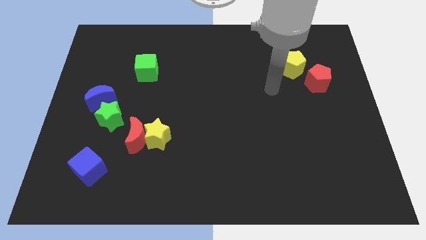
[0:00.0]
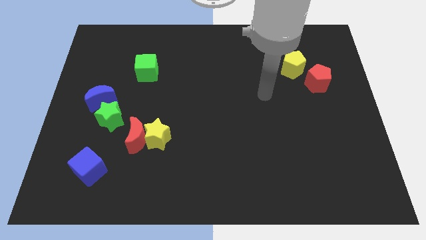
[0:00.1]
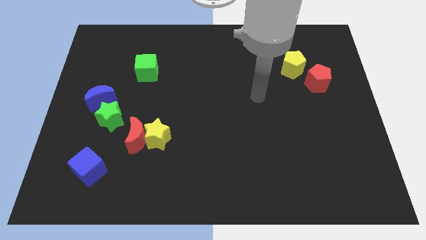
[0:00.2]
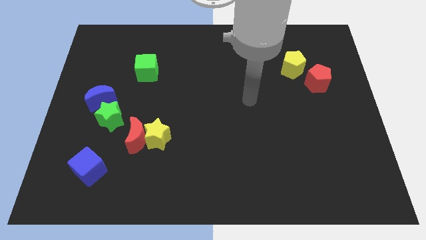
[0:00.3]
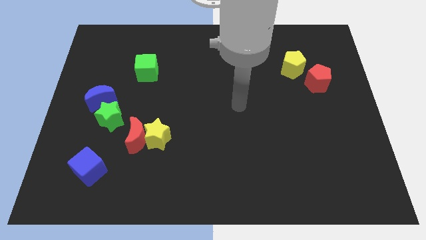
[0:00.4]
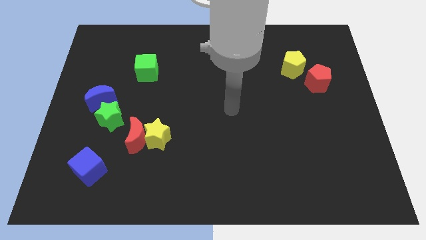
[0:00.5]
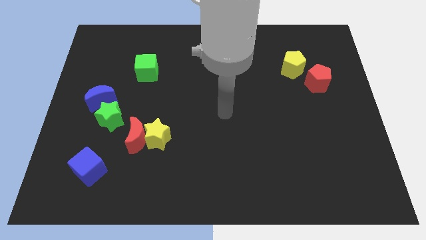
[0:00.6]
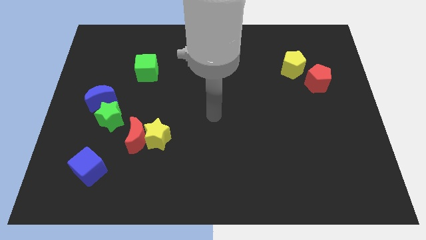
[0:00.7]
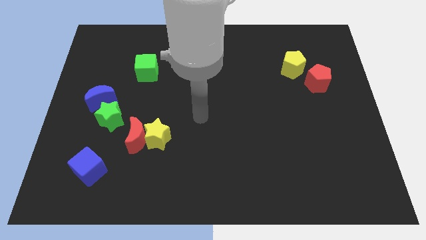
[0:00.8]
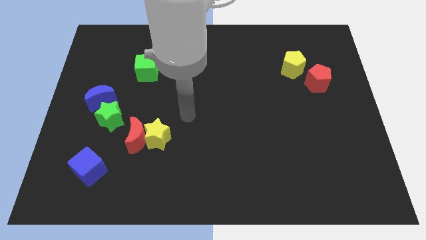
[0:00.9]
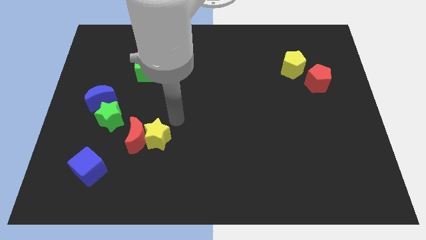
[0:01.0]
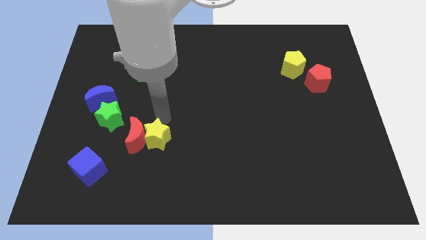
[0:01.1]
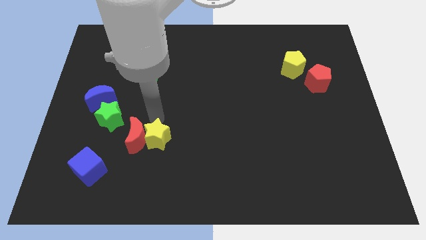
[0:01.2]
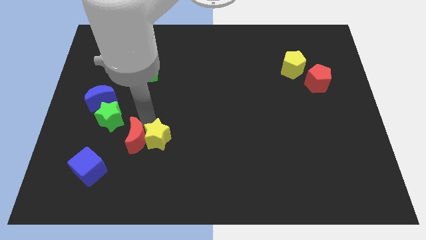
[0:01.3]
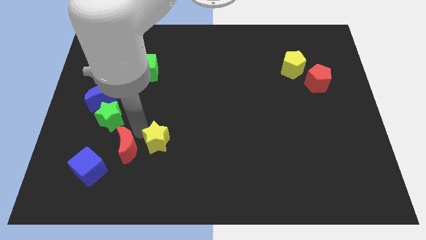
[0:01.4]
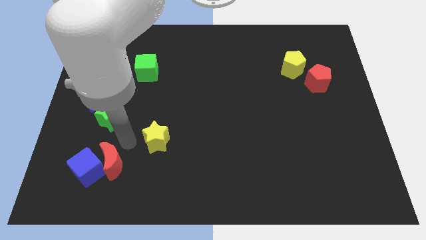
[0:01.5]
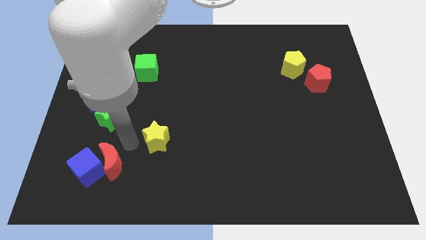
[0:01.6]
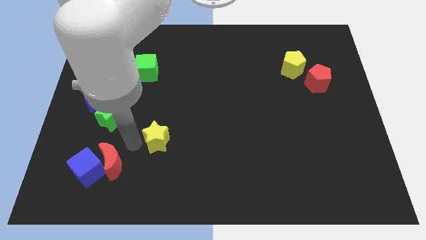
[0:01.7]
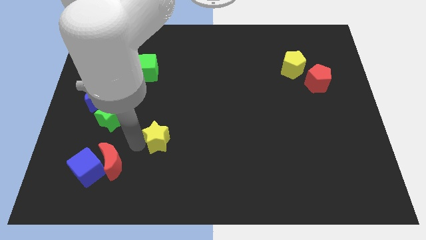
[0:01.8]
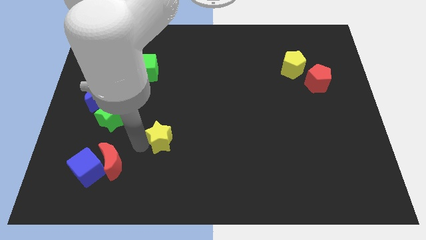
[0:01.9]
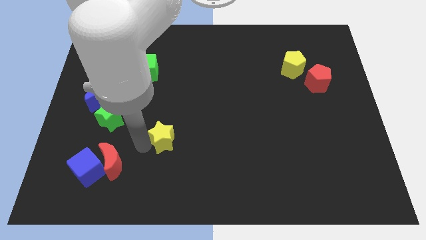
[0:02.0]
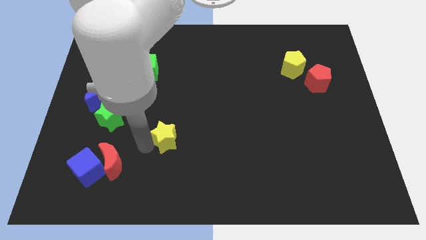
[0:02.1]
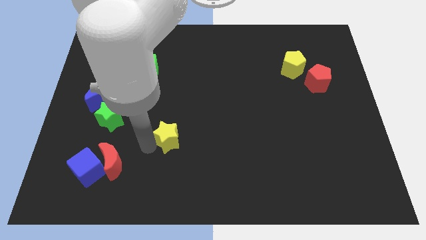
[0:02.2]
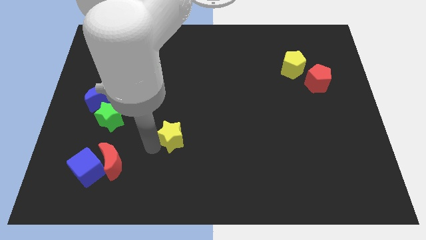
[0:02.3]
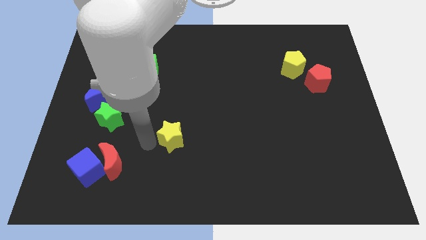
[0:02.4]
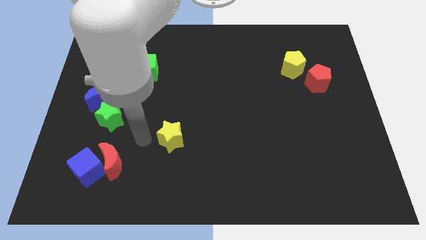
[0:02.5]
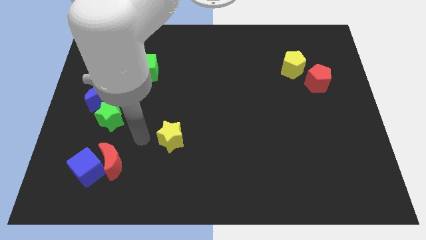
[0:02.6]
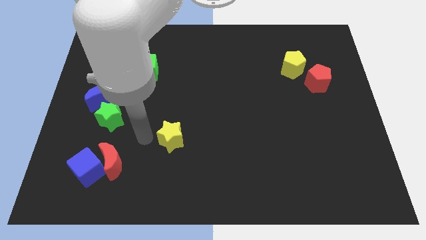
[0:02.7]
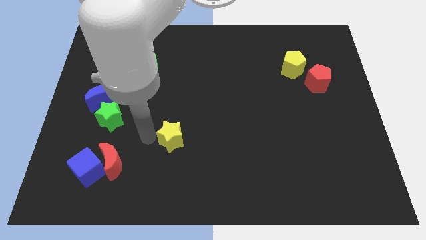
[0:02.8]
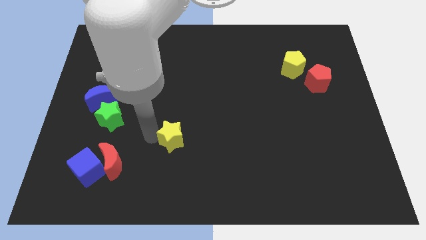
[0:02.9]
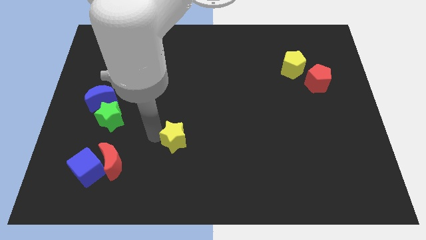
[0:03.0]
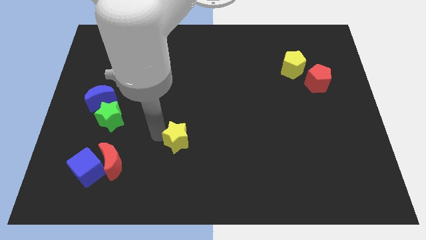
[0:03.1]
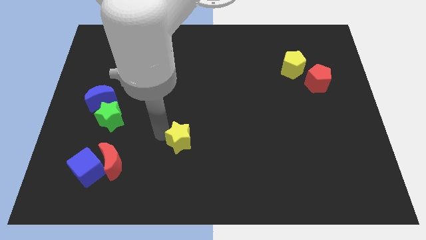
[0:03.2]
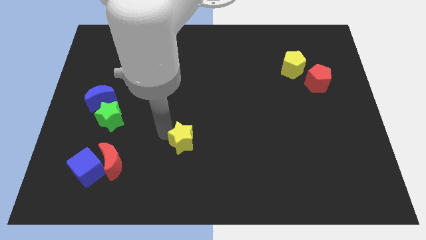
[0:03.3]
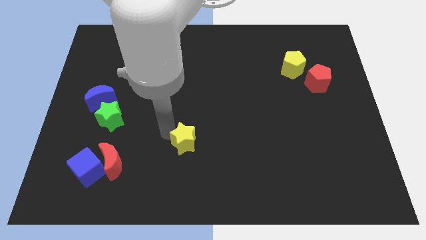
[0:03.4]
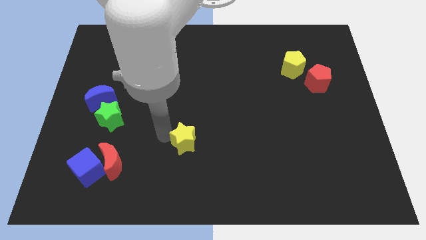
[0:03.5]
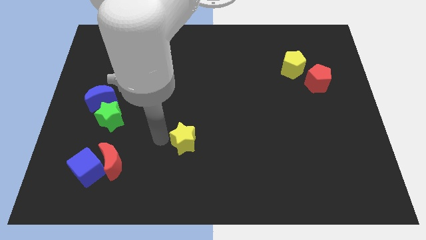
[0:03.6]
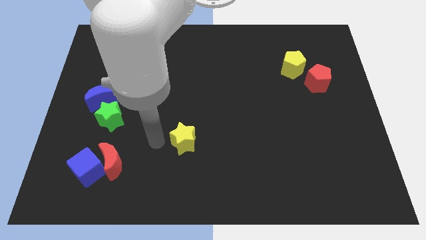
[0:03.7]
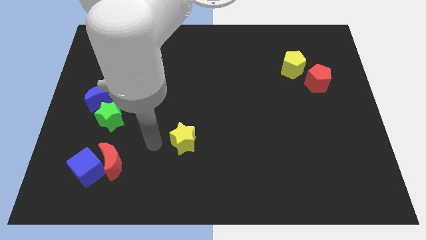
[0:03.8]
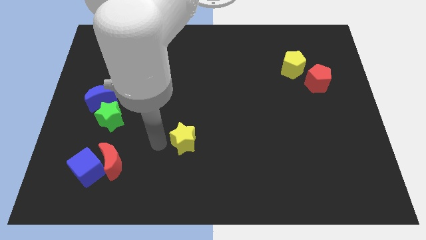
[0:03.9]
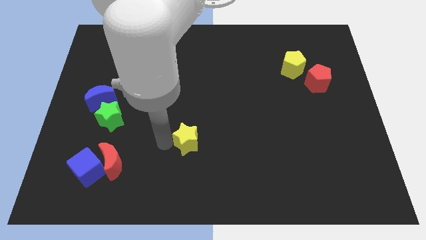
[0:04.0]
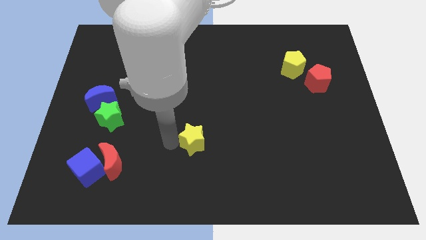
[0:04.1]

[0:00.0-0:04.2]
move the yellow star right a little

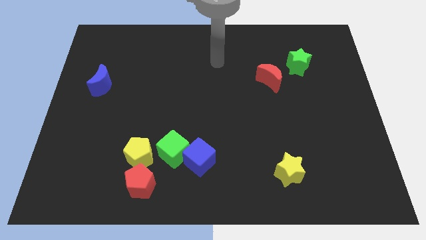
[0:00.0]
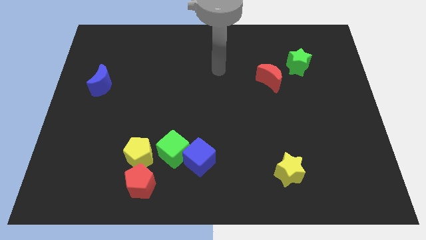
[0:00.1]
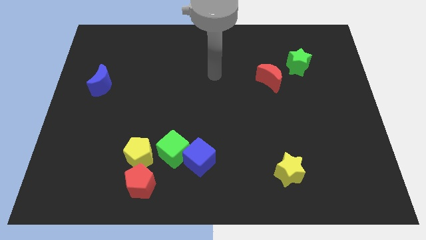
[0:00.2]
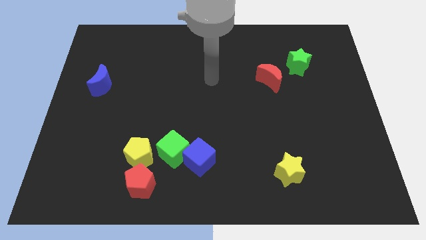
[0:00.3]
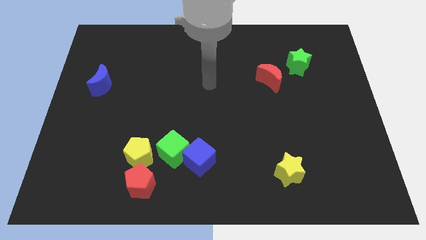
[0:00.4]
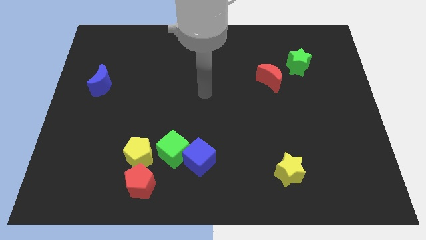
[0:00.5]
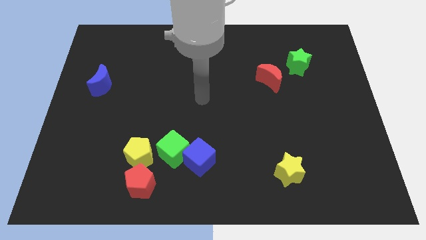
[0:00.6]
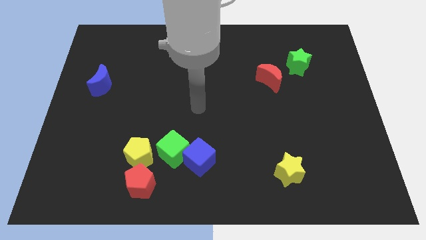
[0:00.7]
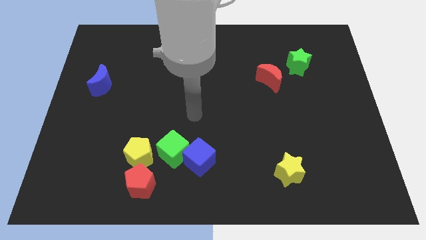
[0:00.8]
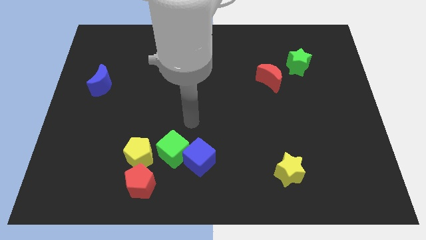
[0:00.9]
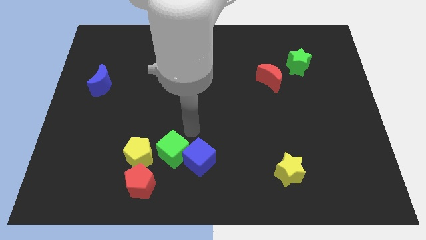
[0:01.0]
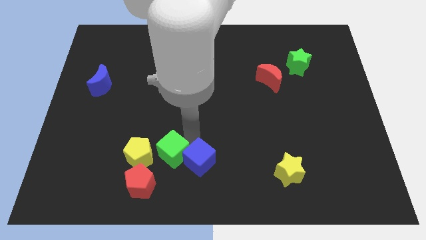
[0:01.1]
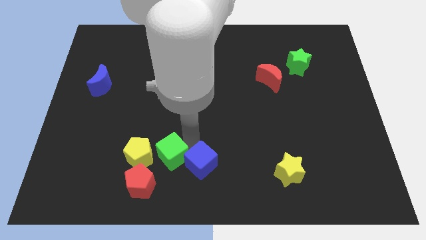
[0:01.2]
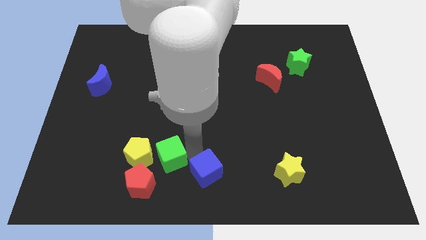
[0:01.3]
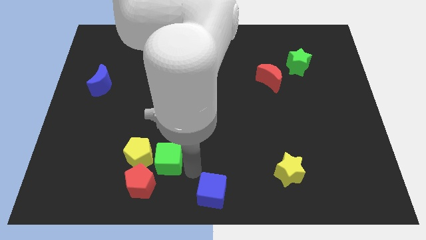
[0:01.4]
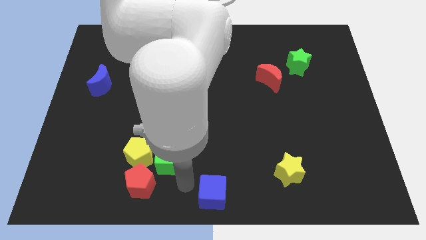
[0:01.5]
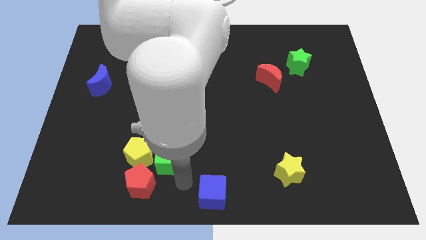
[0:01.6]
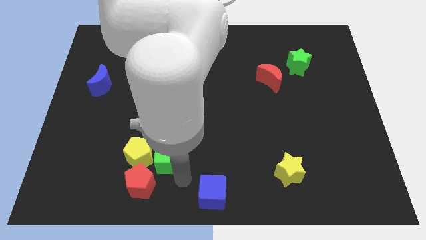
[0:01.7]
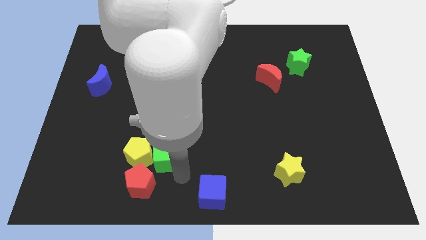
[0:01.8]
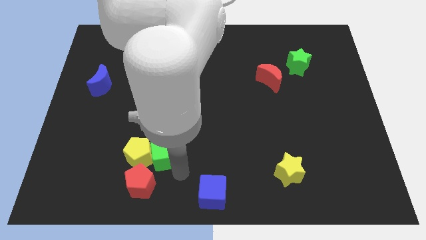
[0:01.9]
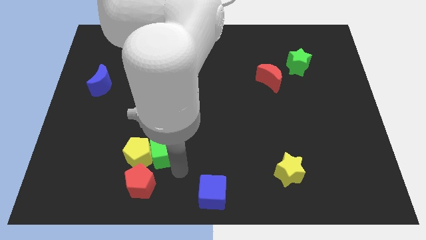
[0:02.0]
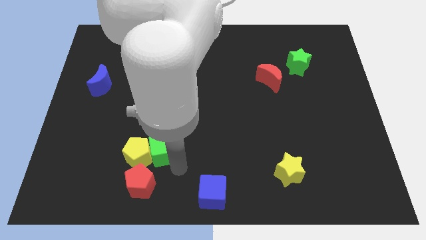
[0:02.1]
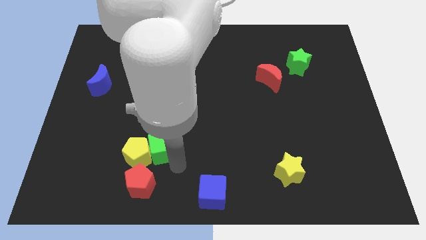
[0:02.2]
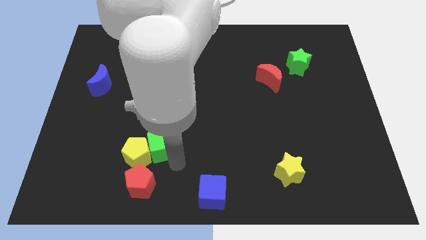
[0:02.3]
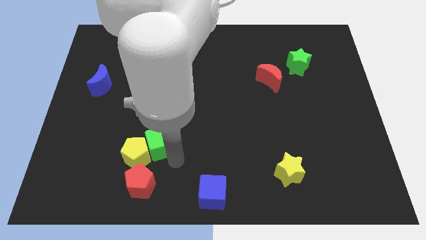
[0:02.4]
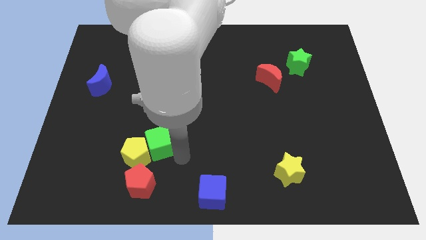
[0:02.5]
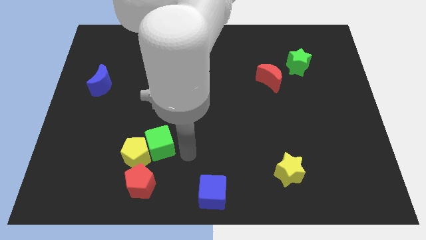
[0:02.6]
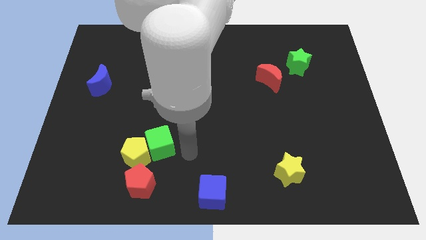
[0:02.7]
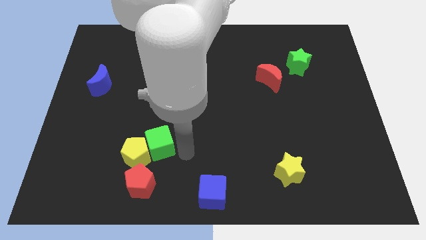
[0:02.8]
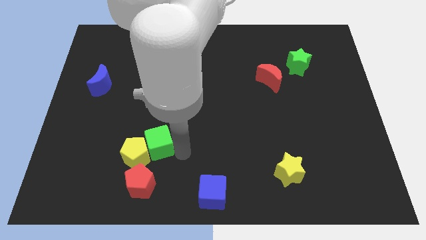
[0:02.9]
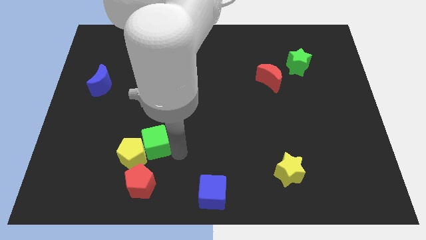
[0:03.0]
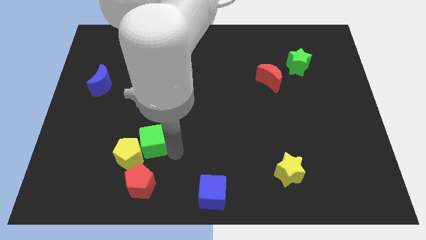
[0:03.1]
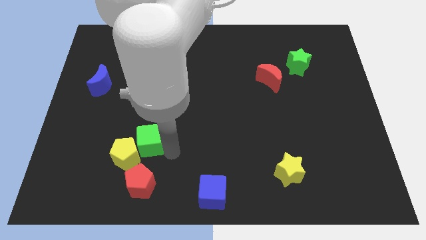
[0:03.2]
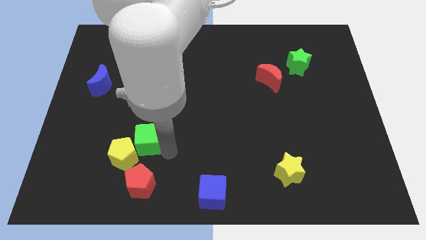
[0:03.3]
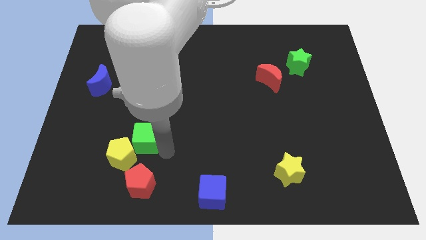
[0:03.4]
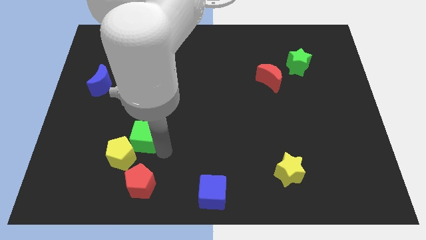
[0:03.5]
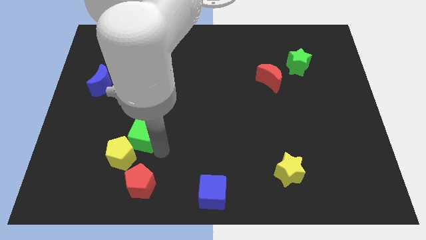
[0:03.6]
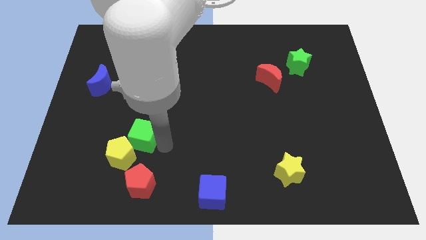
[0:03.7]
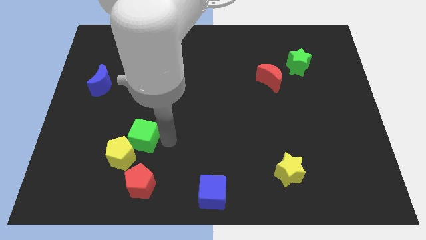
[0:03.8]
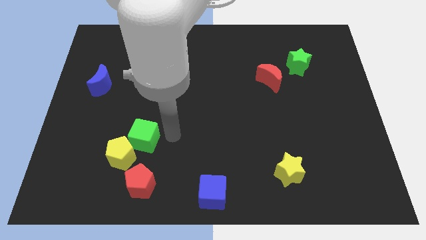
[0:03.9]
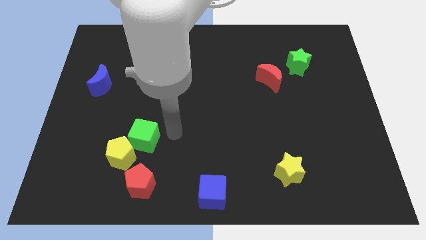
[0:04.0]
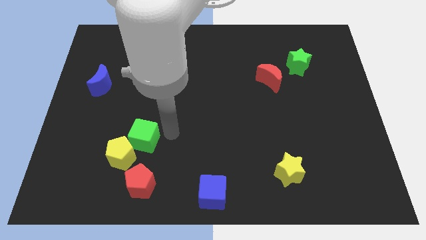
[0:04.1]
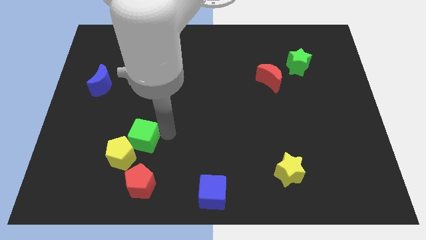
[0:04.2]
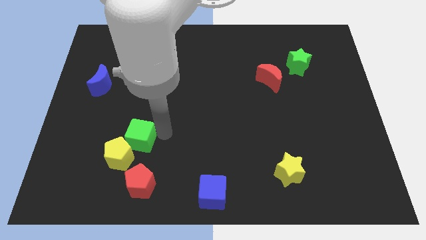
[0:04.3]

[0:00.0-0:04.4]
slightly push the green cube left
